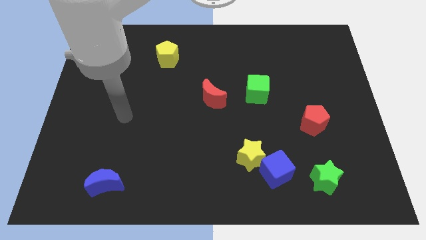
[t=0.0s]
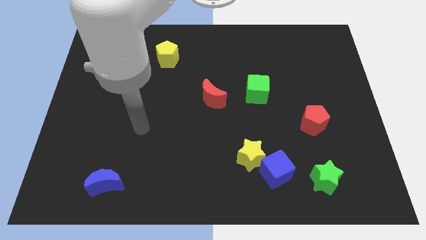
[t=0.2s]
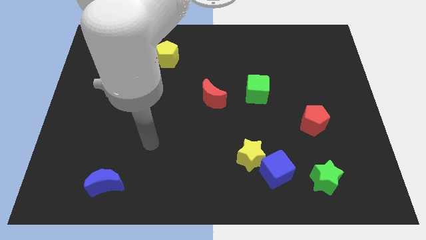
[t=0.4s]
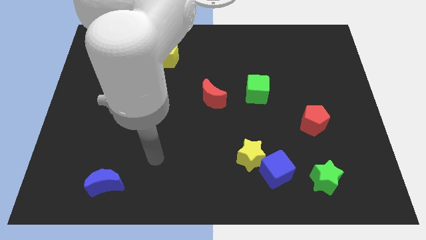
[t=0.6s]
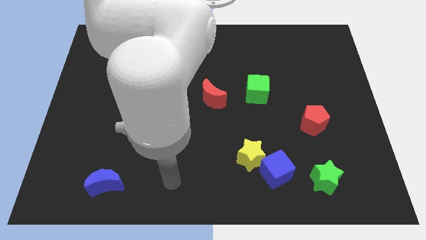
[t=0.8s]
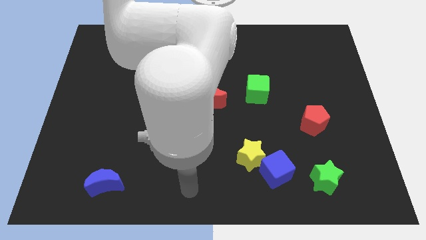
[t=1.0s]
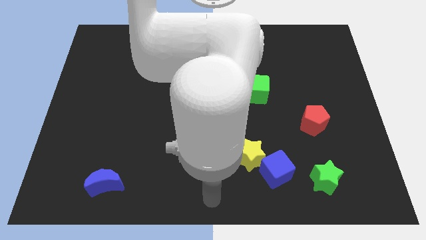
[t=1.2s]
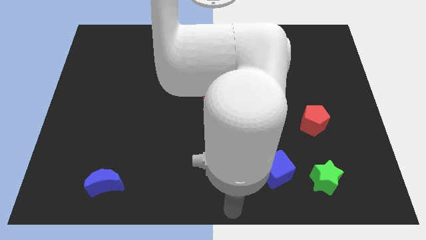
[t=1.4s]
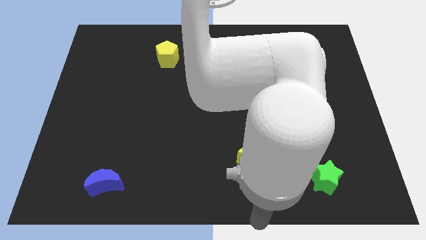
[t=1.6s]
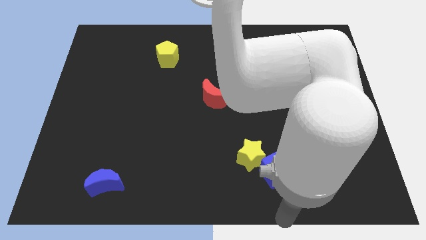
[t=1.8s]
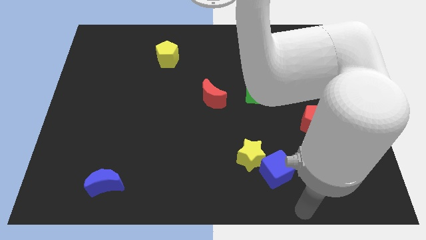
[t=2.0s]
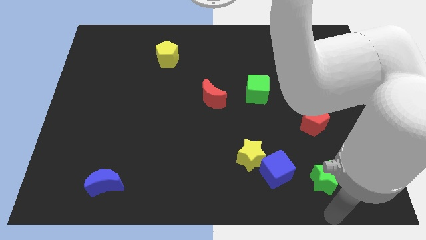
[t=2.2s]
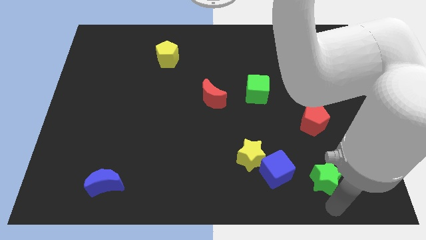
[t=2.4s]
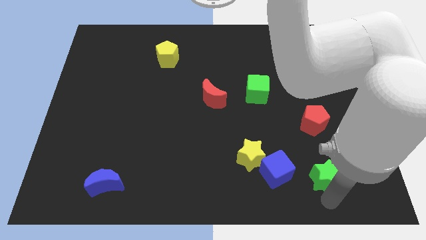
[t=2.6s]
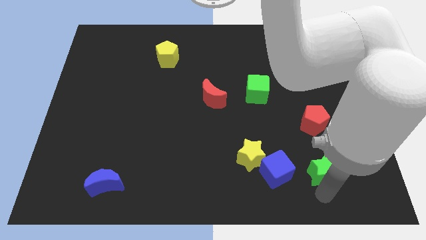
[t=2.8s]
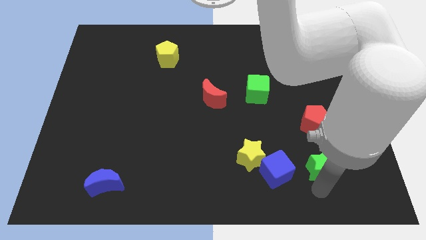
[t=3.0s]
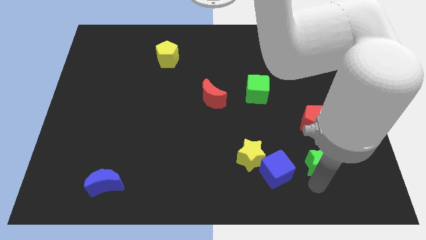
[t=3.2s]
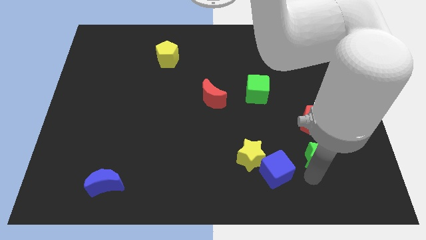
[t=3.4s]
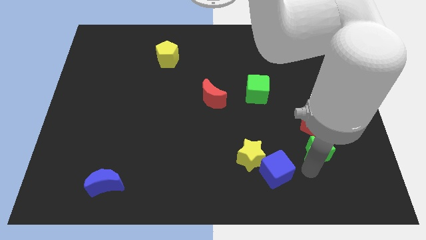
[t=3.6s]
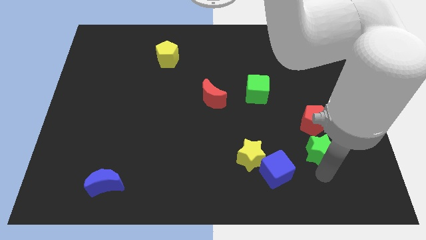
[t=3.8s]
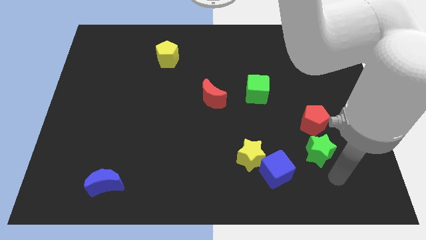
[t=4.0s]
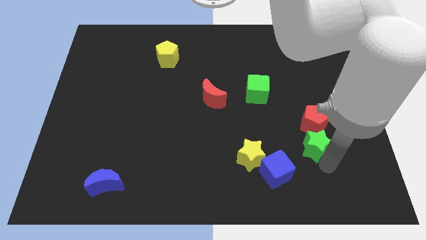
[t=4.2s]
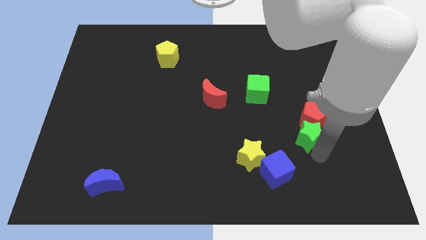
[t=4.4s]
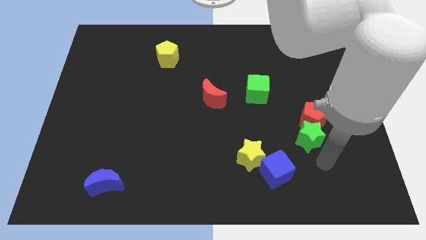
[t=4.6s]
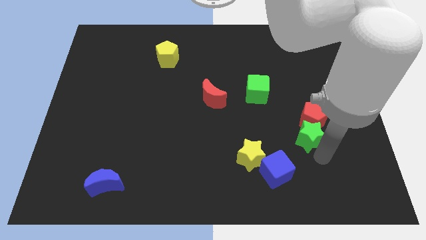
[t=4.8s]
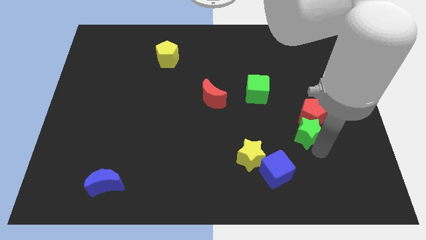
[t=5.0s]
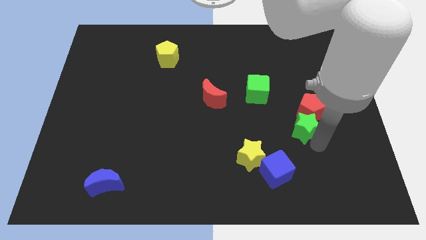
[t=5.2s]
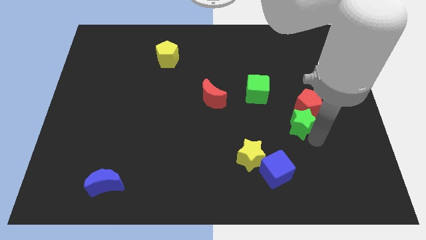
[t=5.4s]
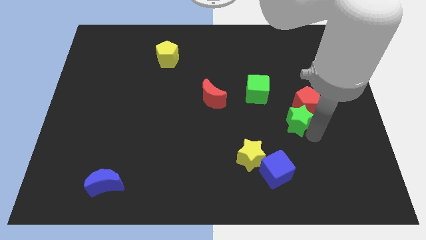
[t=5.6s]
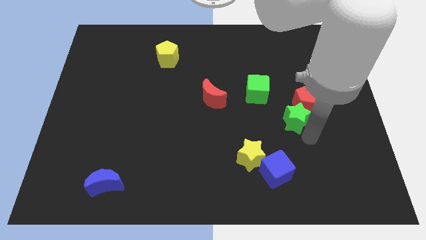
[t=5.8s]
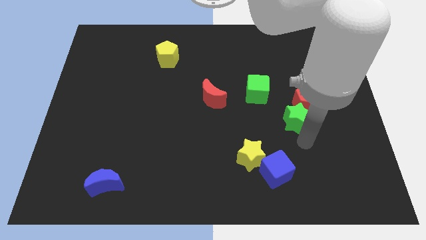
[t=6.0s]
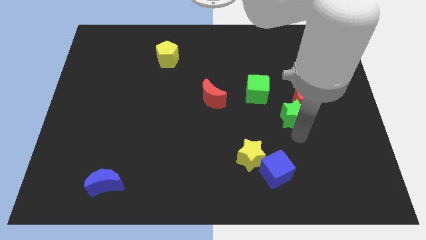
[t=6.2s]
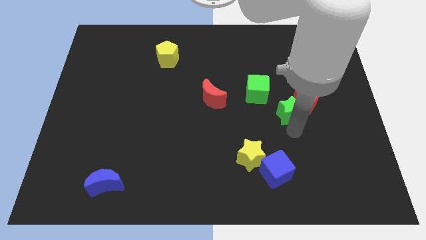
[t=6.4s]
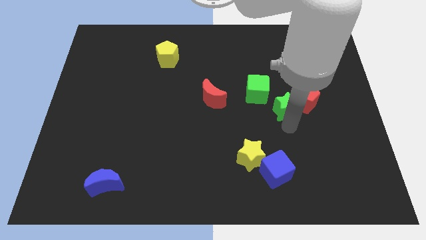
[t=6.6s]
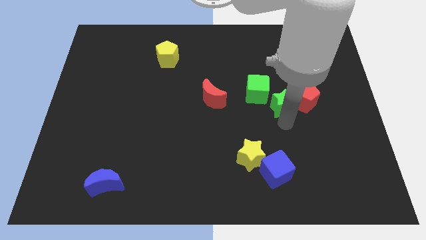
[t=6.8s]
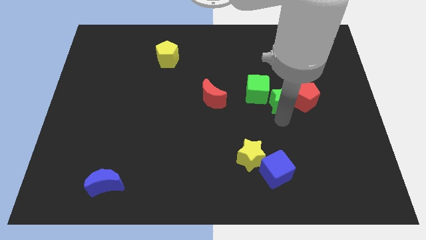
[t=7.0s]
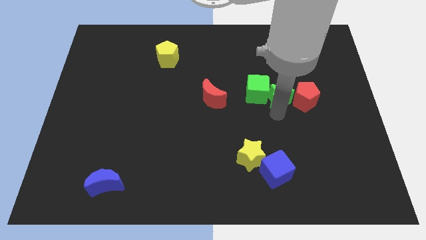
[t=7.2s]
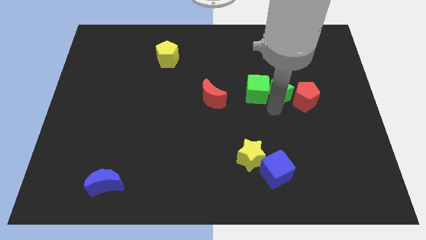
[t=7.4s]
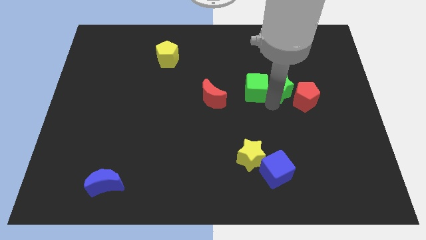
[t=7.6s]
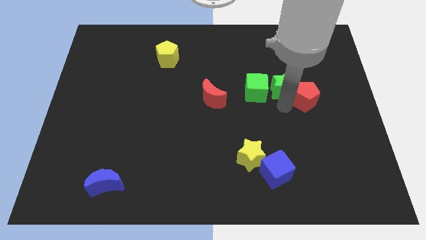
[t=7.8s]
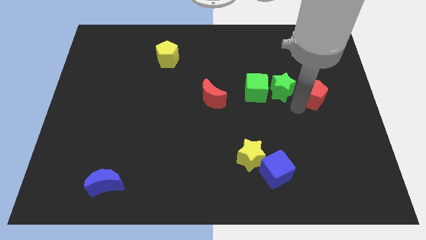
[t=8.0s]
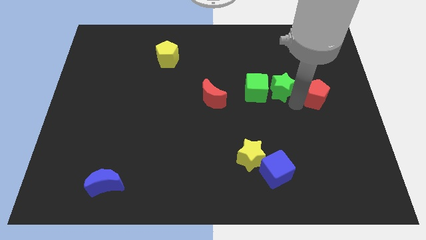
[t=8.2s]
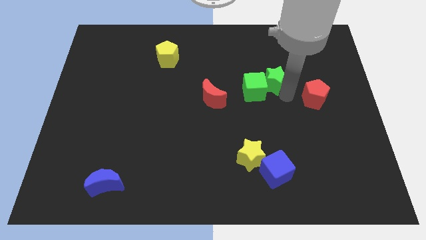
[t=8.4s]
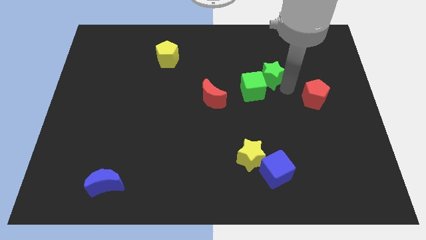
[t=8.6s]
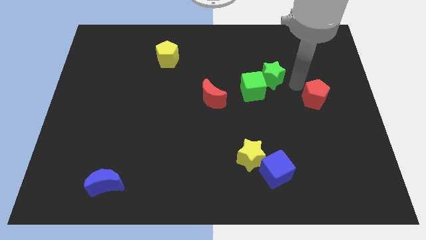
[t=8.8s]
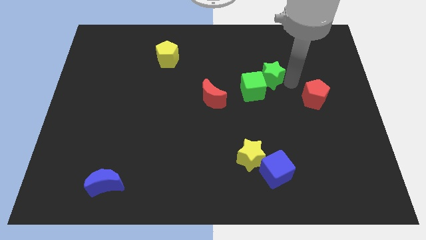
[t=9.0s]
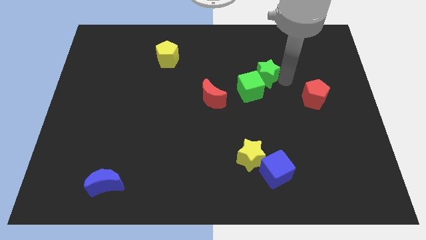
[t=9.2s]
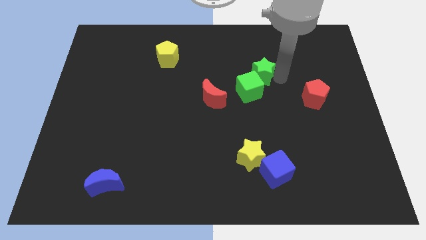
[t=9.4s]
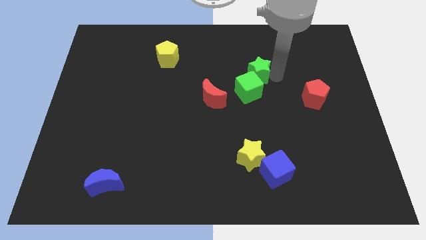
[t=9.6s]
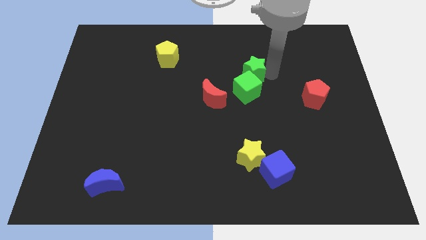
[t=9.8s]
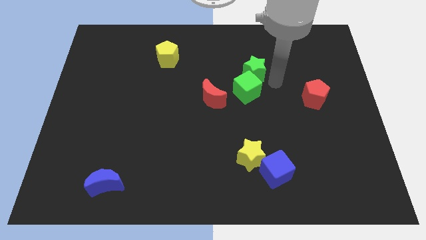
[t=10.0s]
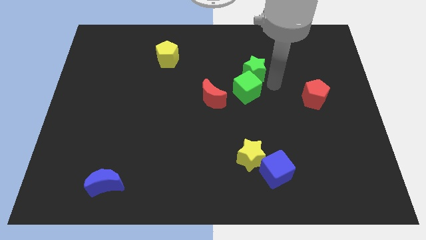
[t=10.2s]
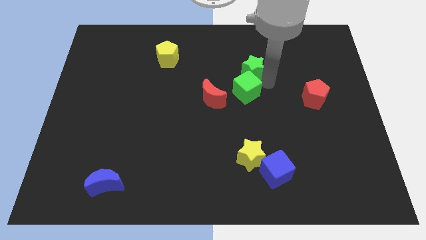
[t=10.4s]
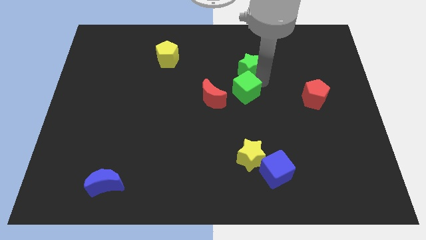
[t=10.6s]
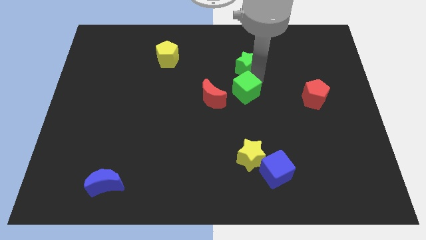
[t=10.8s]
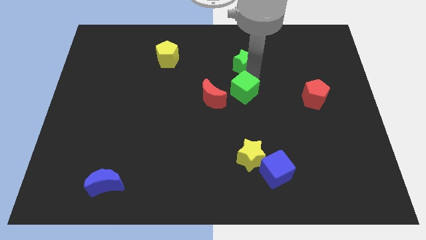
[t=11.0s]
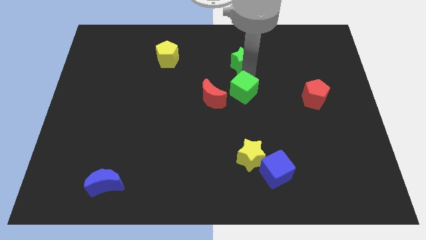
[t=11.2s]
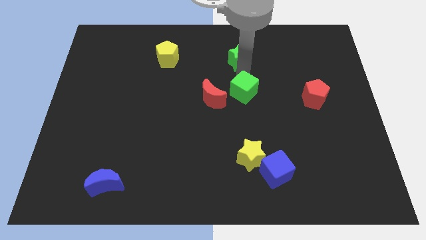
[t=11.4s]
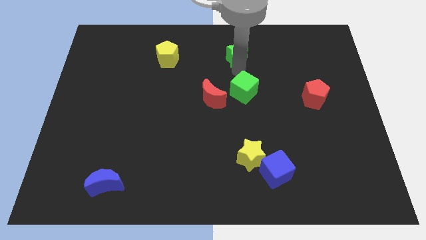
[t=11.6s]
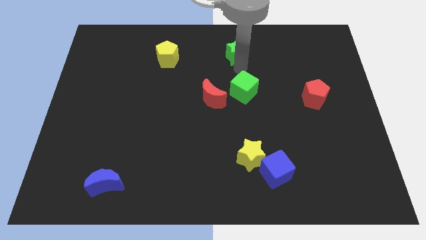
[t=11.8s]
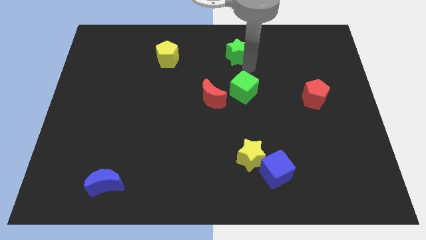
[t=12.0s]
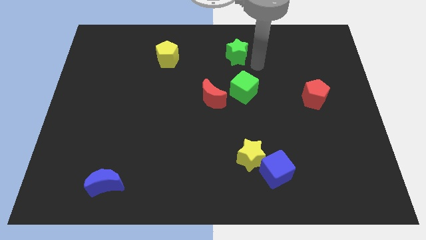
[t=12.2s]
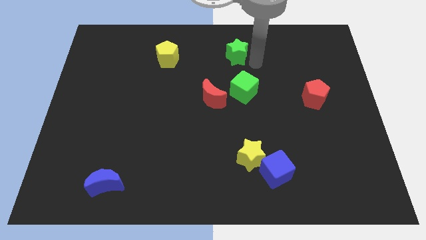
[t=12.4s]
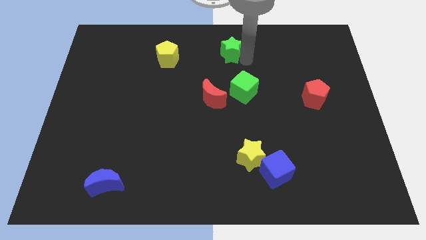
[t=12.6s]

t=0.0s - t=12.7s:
put the green star to the towards your base
